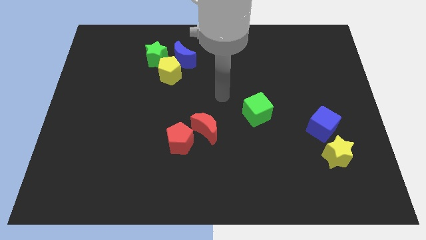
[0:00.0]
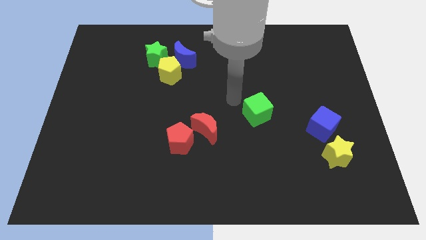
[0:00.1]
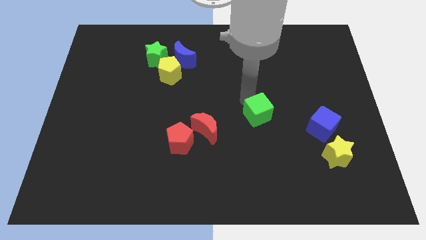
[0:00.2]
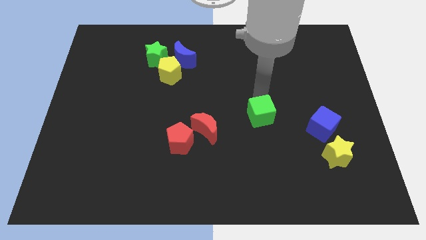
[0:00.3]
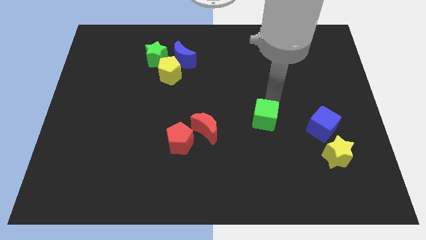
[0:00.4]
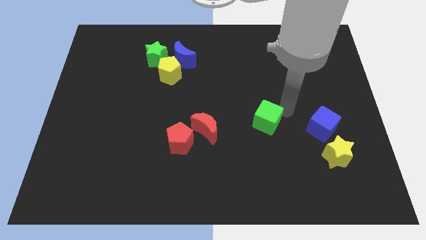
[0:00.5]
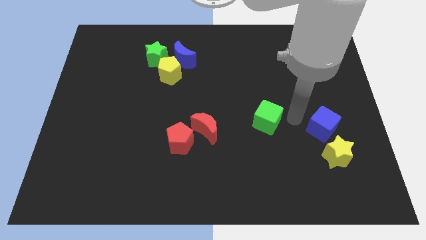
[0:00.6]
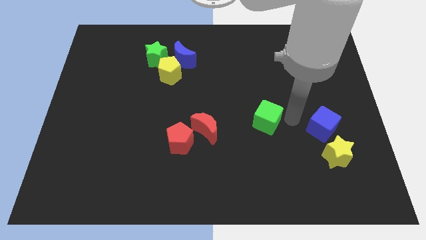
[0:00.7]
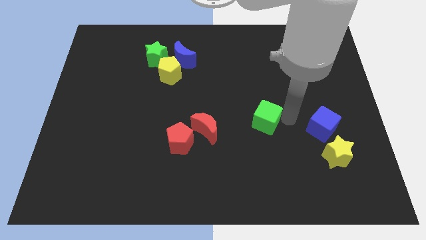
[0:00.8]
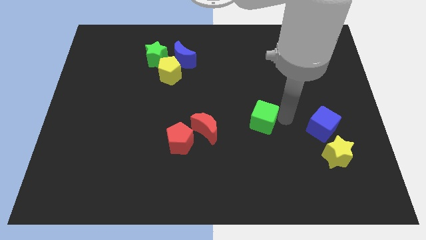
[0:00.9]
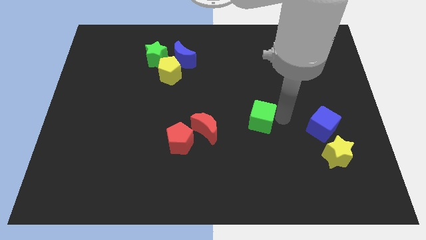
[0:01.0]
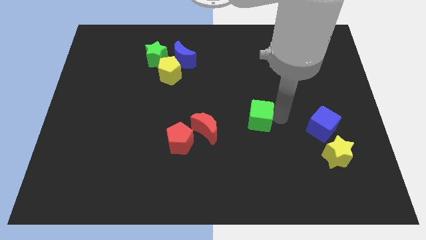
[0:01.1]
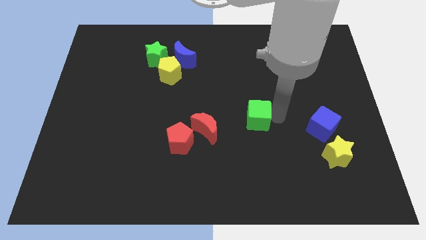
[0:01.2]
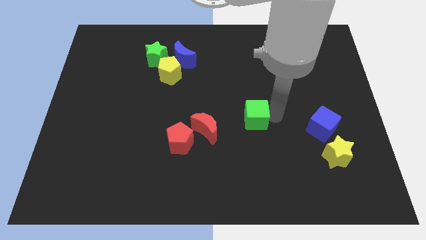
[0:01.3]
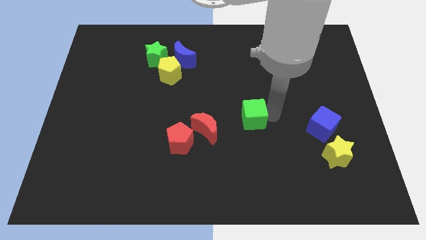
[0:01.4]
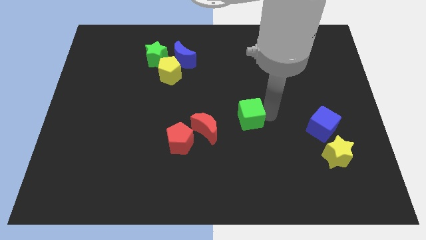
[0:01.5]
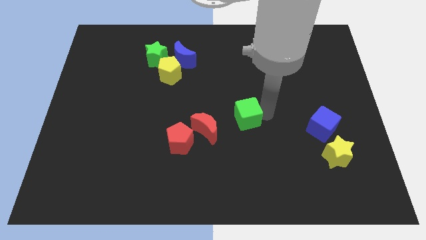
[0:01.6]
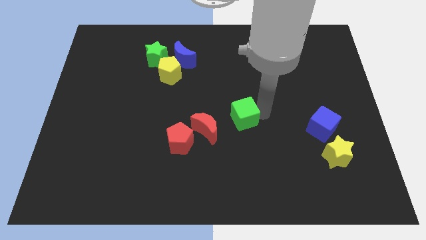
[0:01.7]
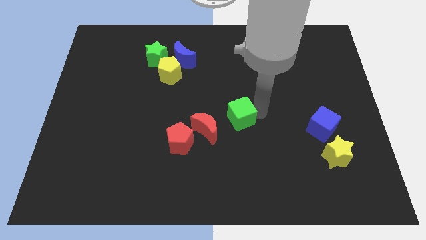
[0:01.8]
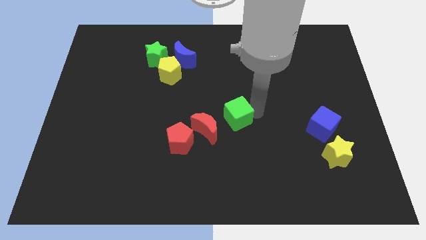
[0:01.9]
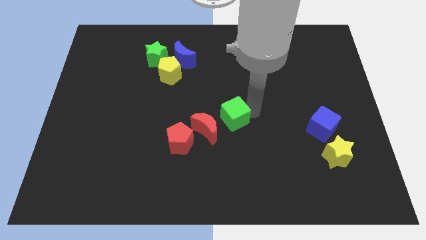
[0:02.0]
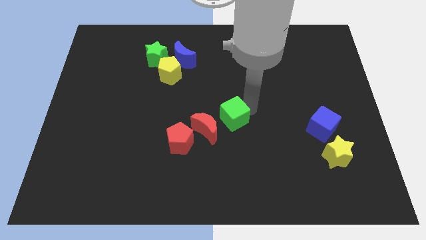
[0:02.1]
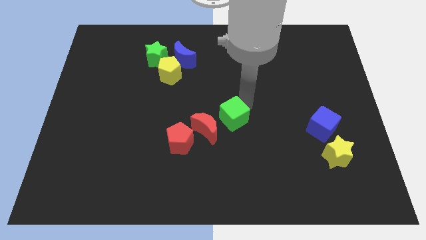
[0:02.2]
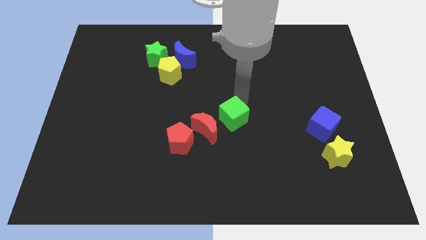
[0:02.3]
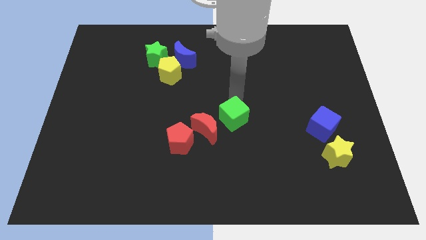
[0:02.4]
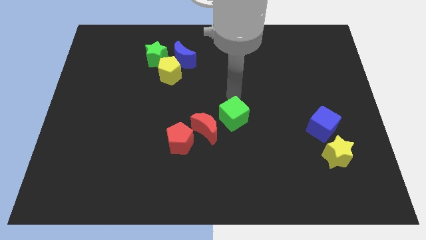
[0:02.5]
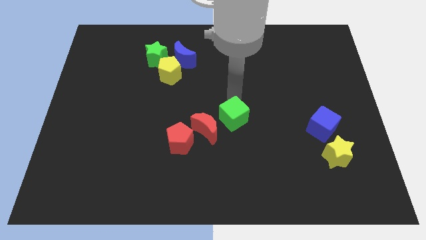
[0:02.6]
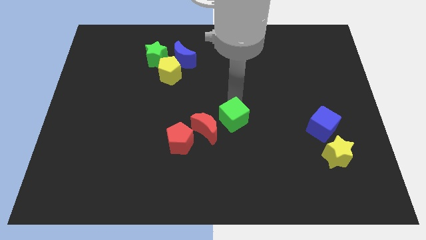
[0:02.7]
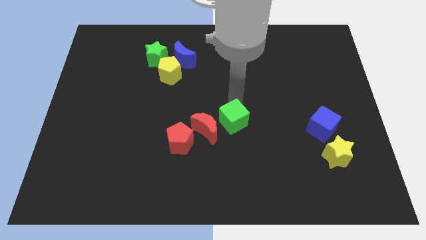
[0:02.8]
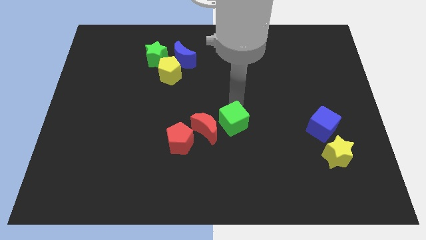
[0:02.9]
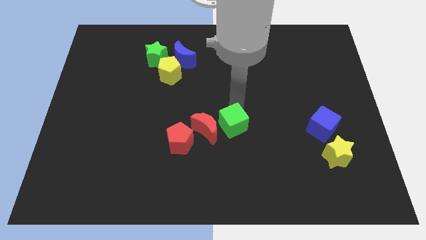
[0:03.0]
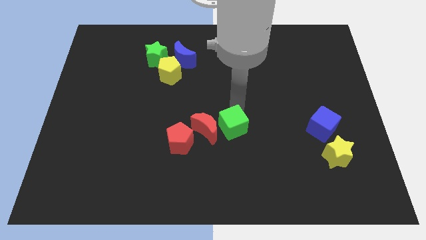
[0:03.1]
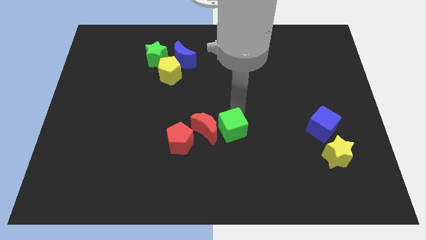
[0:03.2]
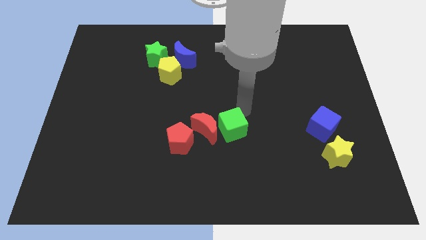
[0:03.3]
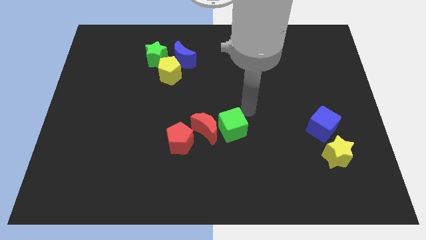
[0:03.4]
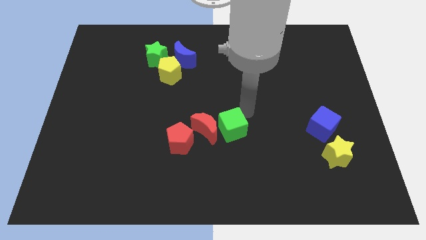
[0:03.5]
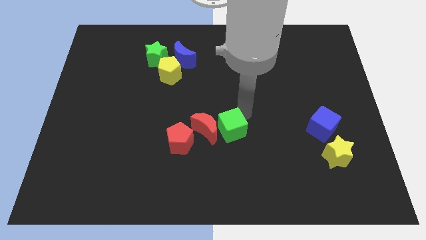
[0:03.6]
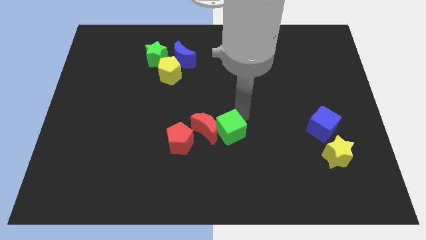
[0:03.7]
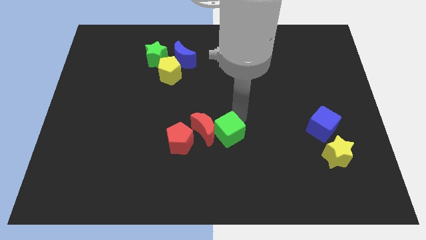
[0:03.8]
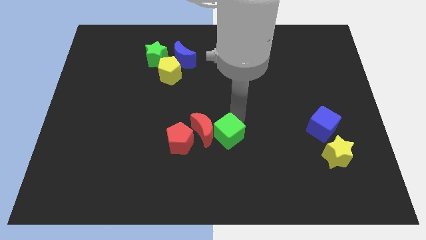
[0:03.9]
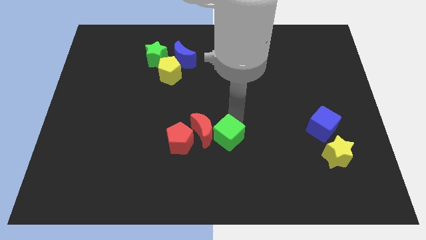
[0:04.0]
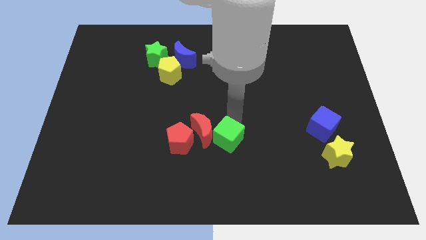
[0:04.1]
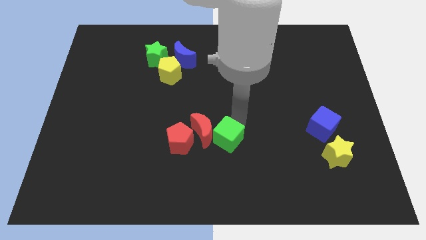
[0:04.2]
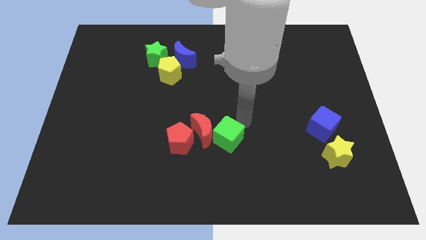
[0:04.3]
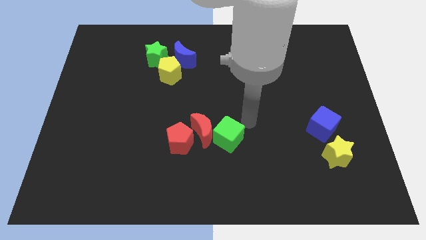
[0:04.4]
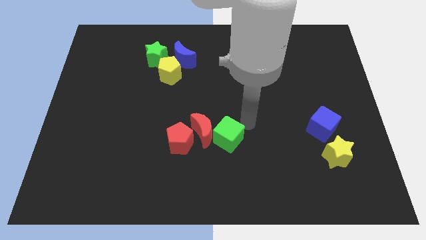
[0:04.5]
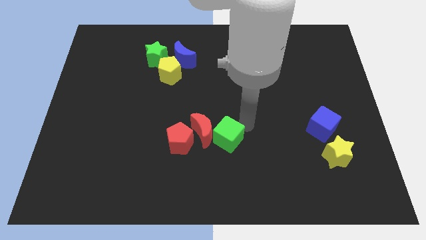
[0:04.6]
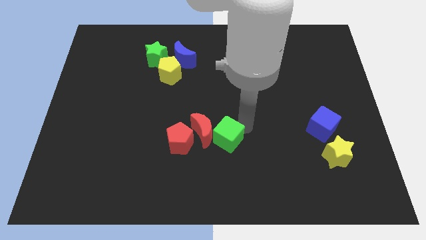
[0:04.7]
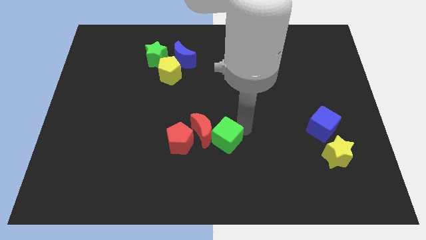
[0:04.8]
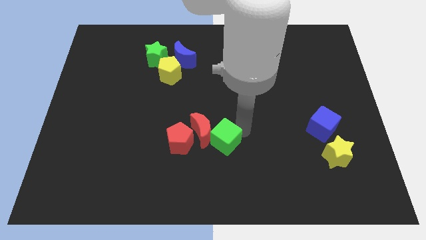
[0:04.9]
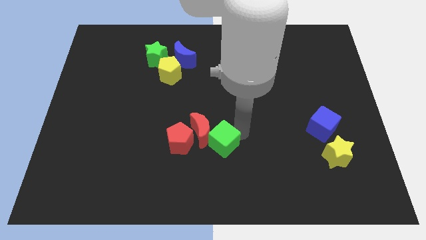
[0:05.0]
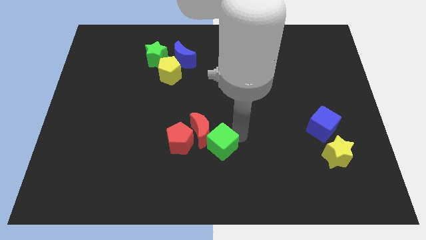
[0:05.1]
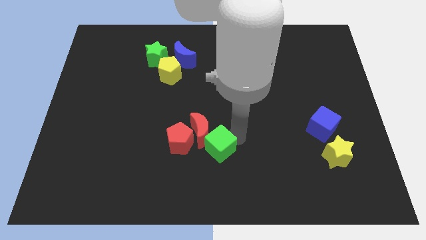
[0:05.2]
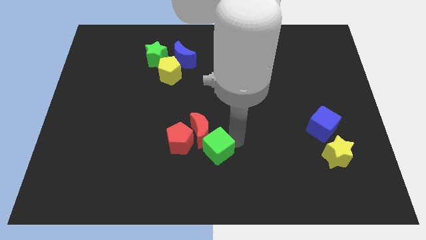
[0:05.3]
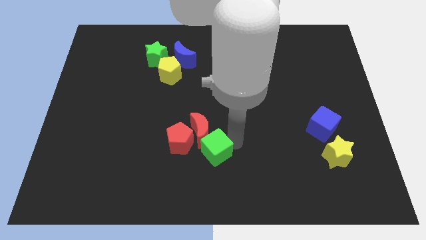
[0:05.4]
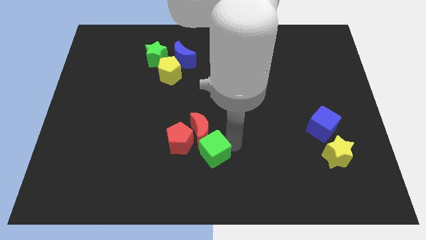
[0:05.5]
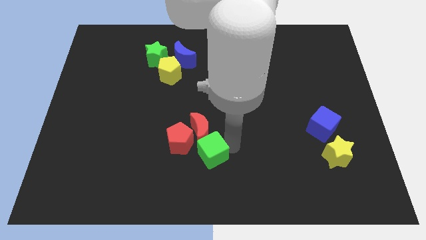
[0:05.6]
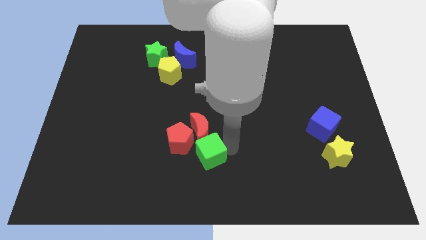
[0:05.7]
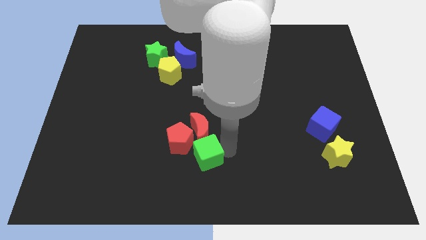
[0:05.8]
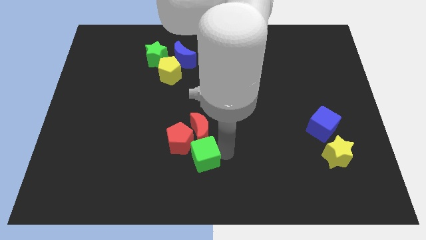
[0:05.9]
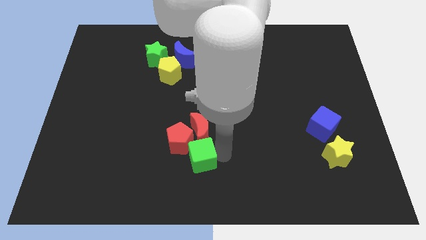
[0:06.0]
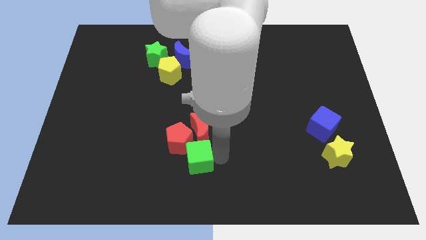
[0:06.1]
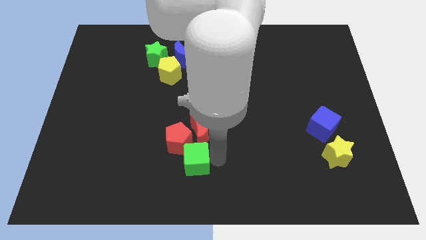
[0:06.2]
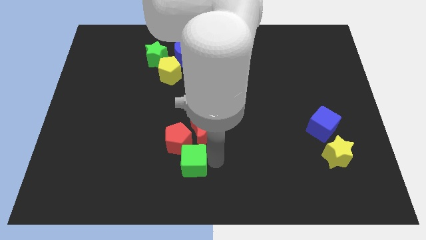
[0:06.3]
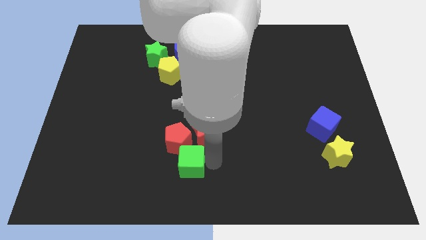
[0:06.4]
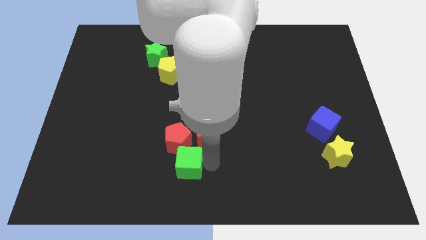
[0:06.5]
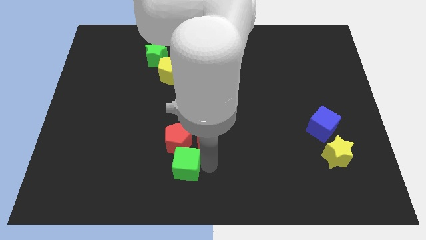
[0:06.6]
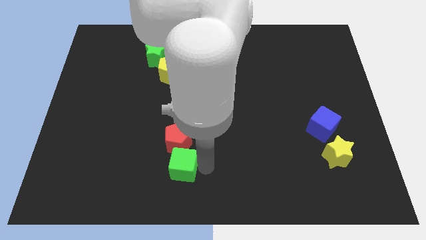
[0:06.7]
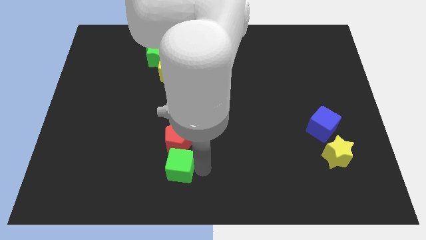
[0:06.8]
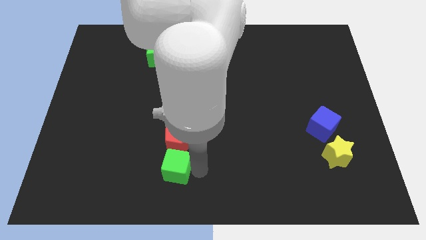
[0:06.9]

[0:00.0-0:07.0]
put the green cube diagonally down and to the left of the red pentagon
